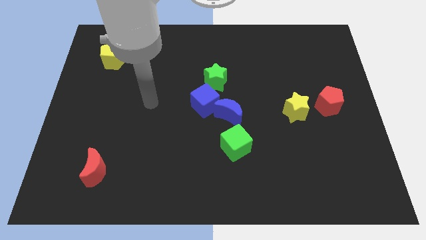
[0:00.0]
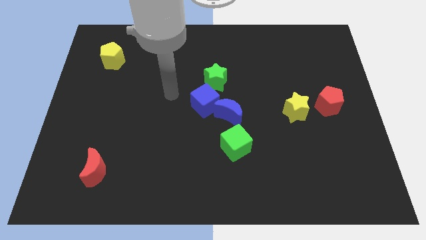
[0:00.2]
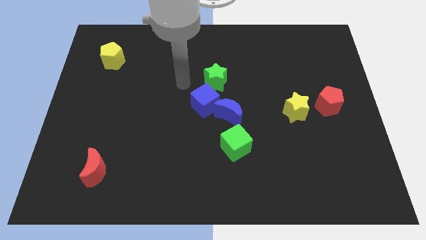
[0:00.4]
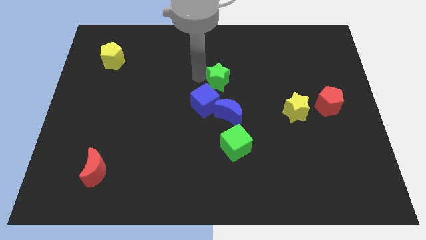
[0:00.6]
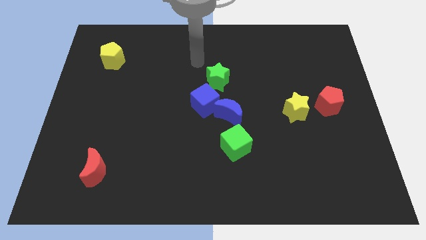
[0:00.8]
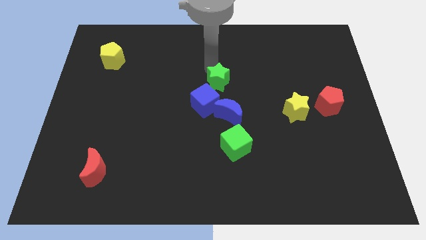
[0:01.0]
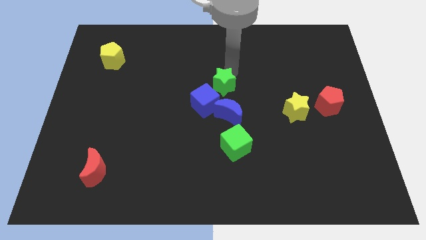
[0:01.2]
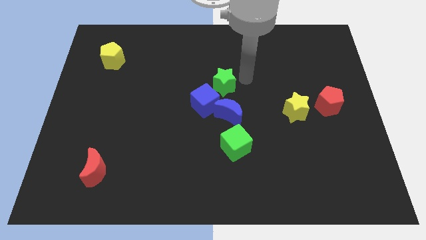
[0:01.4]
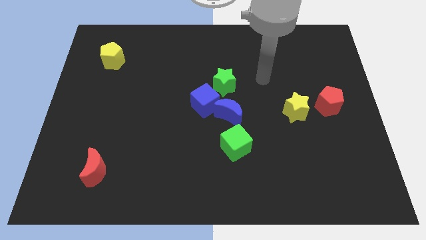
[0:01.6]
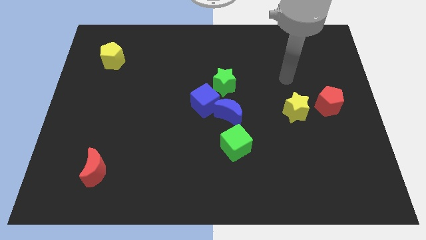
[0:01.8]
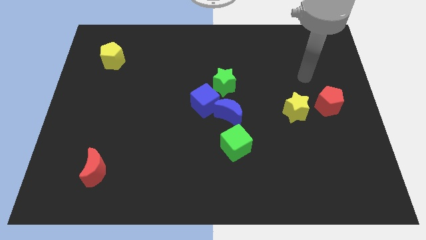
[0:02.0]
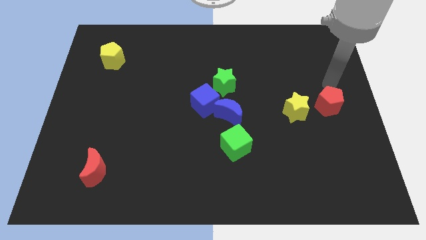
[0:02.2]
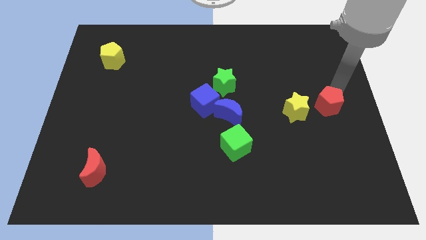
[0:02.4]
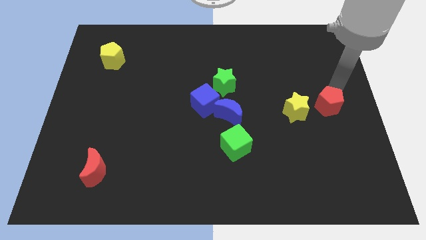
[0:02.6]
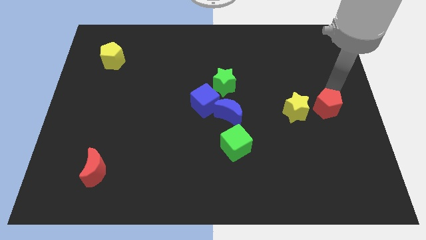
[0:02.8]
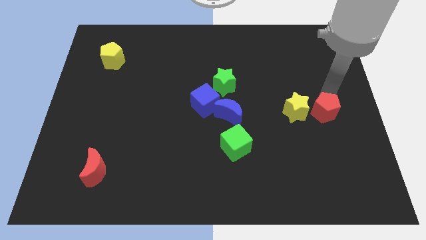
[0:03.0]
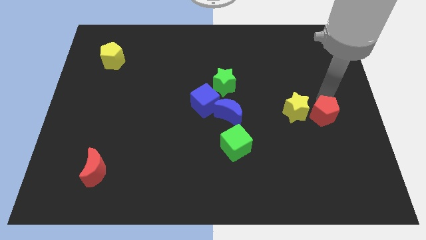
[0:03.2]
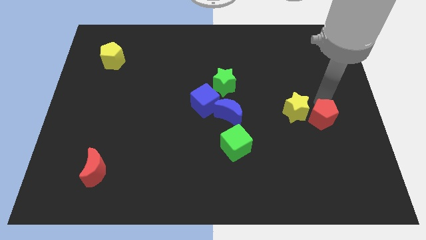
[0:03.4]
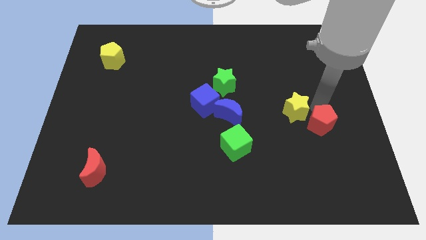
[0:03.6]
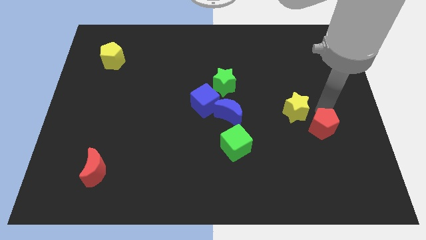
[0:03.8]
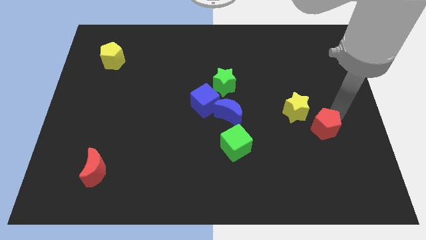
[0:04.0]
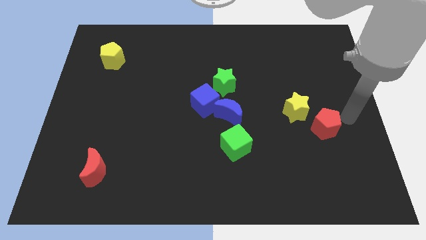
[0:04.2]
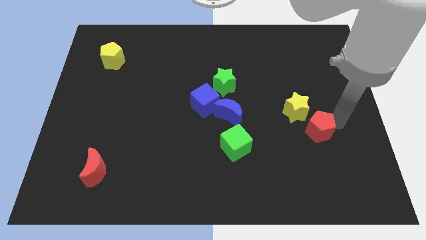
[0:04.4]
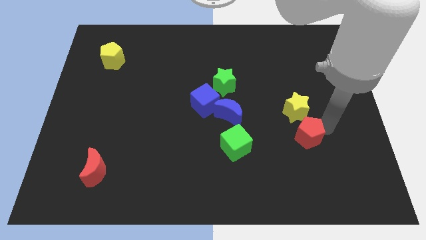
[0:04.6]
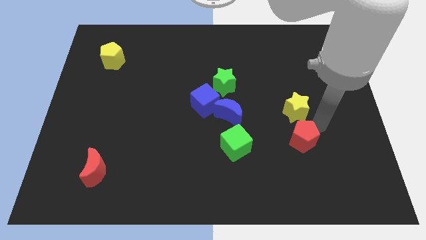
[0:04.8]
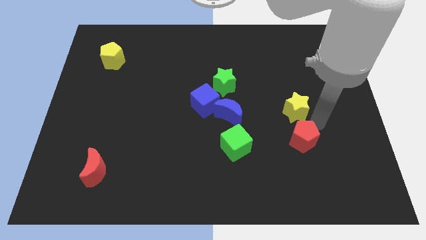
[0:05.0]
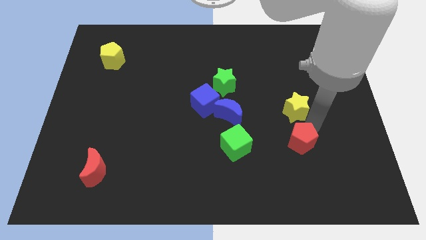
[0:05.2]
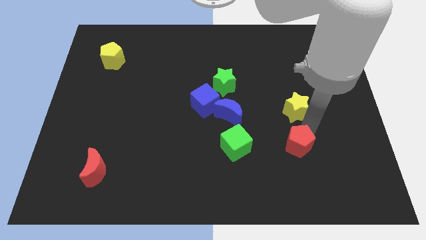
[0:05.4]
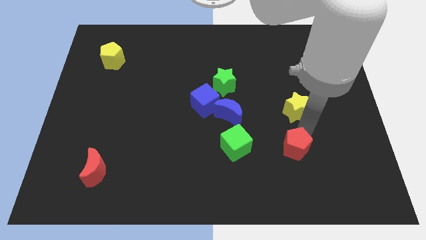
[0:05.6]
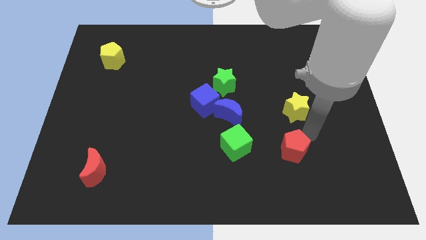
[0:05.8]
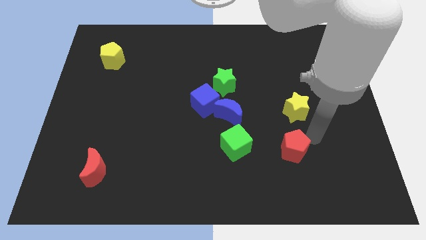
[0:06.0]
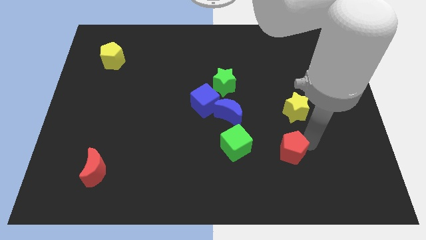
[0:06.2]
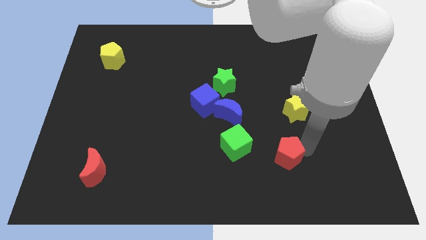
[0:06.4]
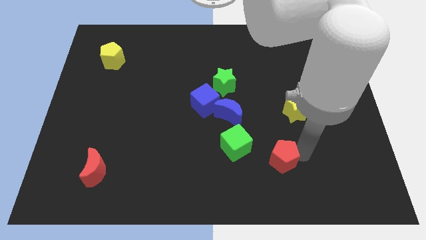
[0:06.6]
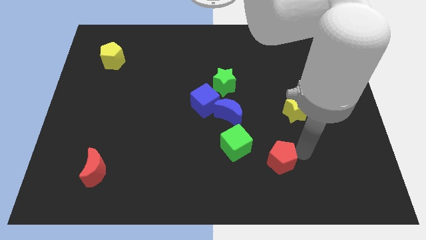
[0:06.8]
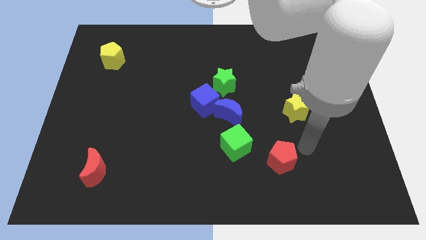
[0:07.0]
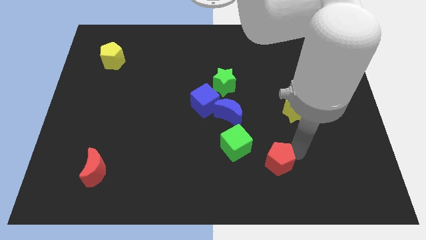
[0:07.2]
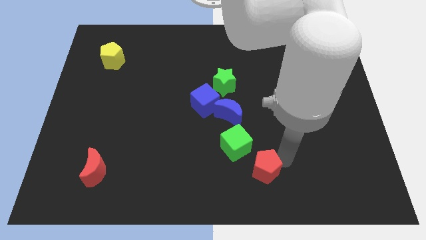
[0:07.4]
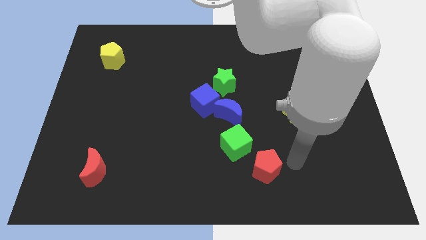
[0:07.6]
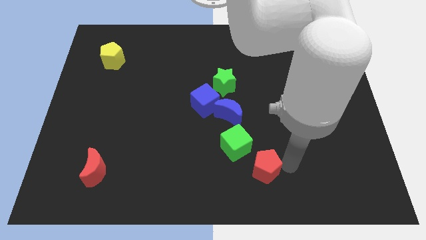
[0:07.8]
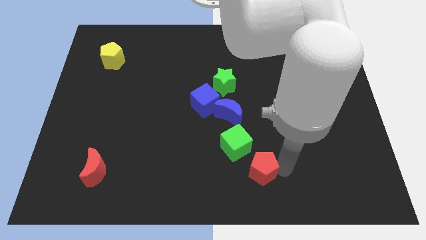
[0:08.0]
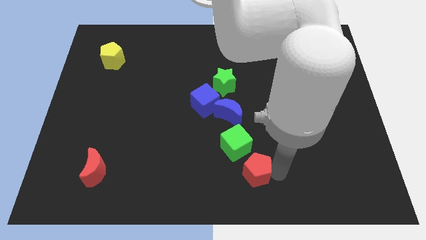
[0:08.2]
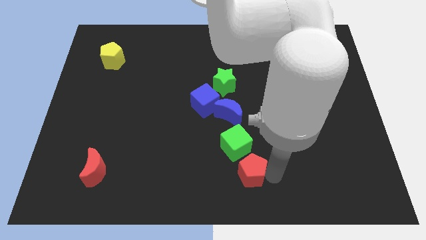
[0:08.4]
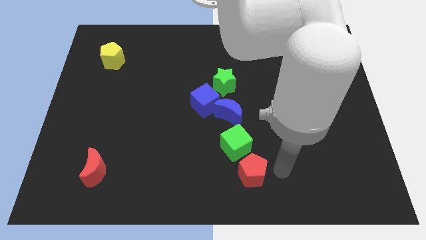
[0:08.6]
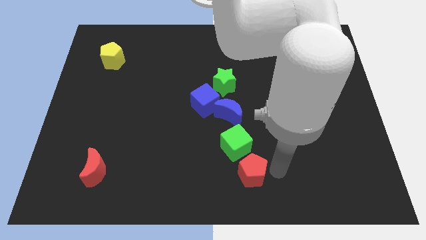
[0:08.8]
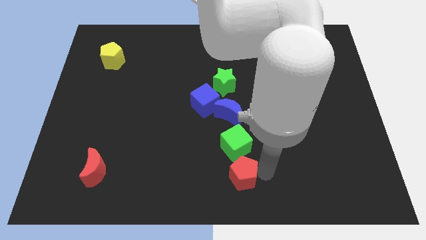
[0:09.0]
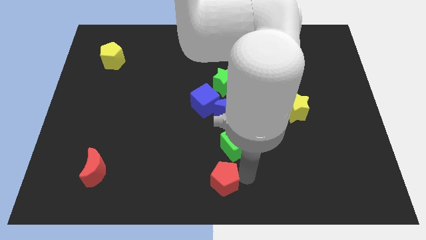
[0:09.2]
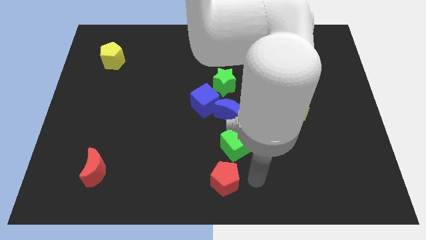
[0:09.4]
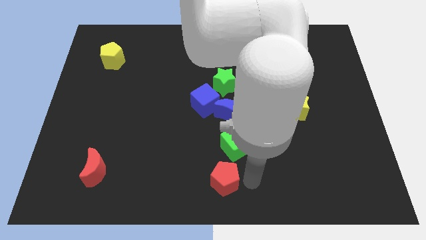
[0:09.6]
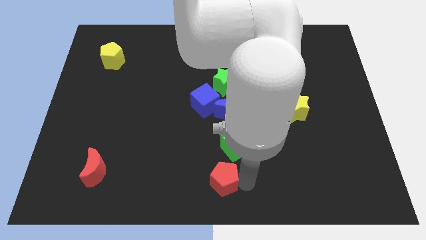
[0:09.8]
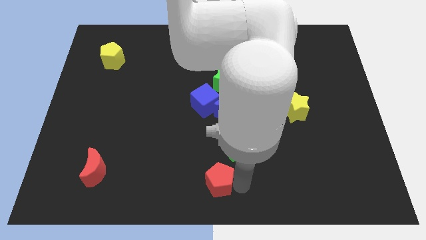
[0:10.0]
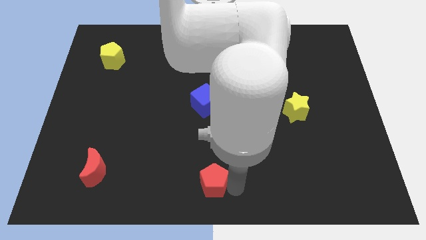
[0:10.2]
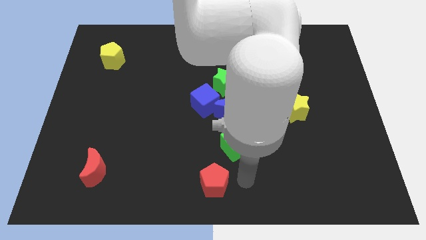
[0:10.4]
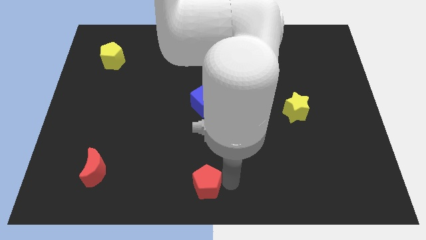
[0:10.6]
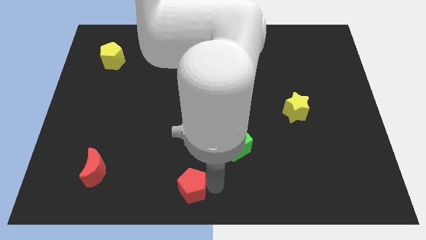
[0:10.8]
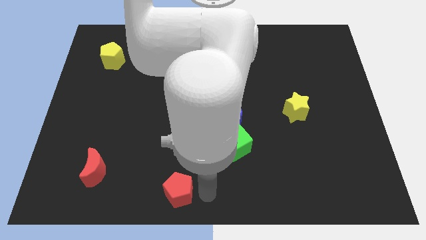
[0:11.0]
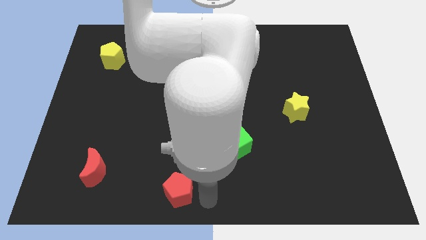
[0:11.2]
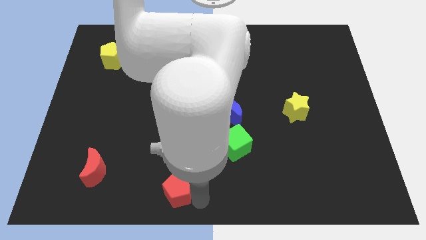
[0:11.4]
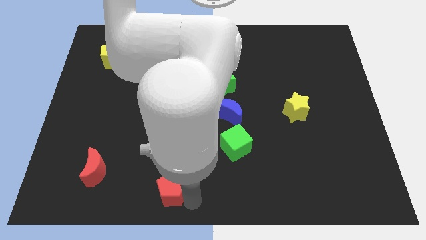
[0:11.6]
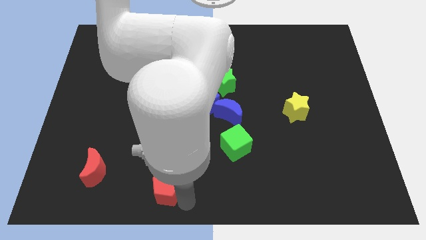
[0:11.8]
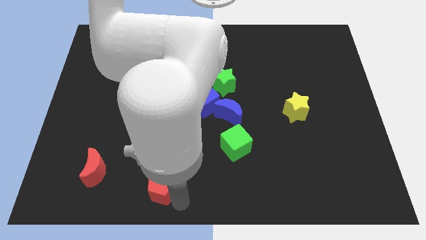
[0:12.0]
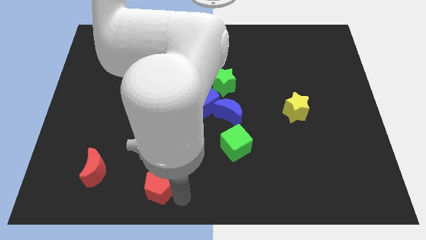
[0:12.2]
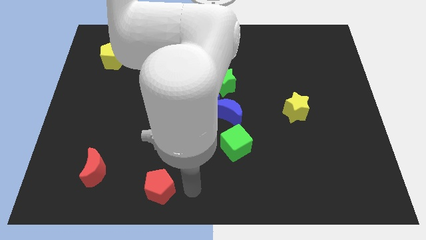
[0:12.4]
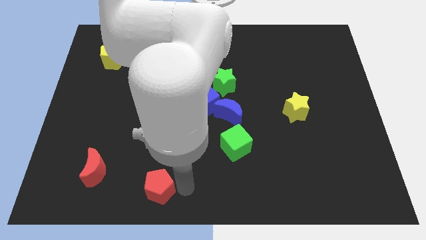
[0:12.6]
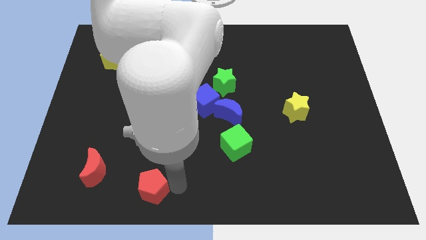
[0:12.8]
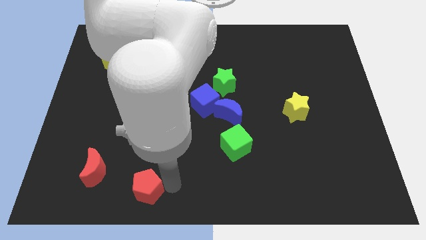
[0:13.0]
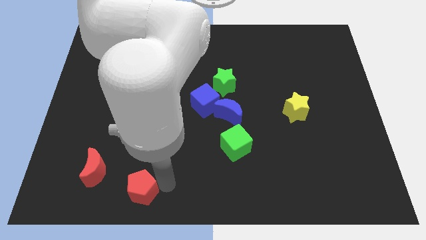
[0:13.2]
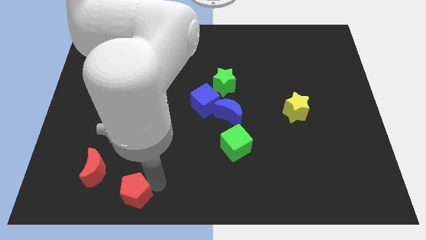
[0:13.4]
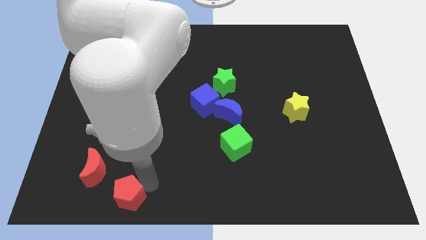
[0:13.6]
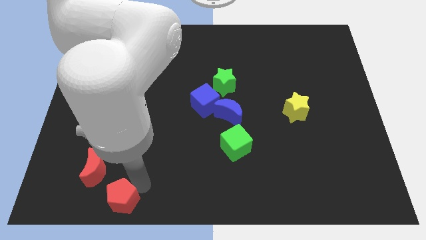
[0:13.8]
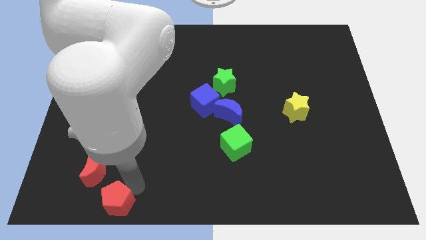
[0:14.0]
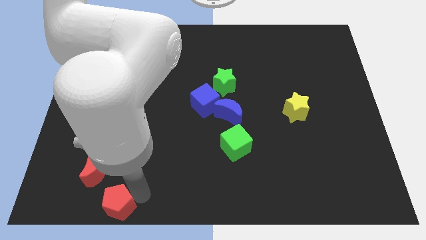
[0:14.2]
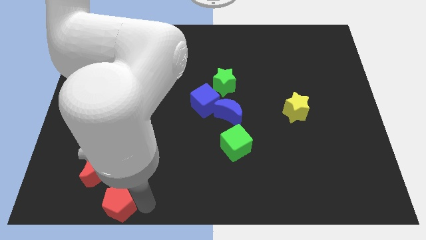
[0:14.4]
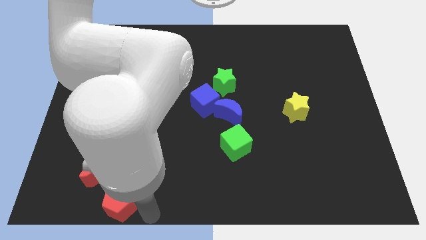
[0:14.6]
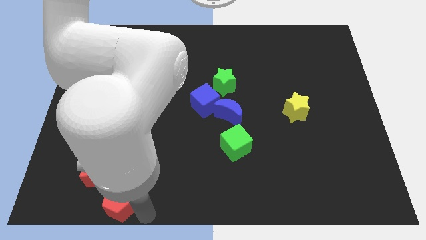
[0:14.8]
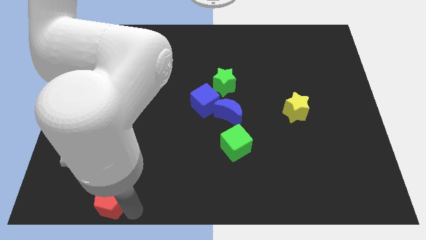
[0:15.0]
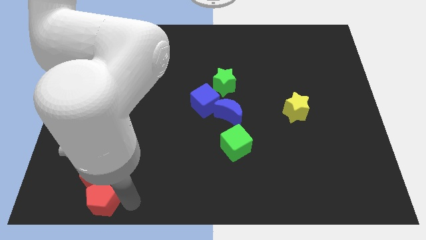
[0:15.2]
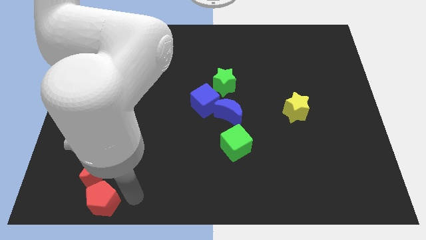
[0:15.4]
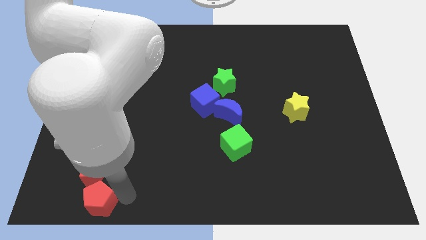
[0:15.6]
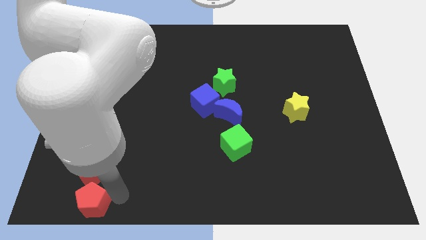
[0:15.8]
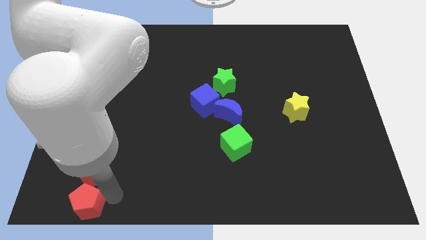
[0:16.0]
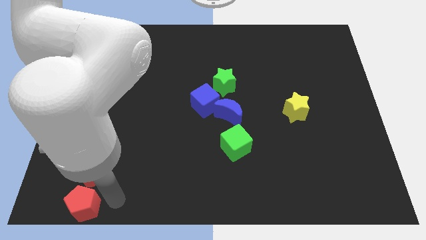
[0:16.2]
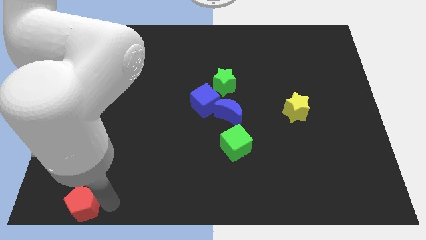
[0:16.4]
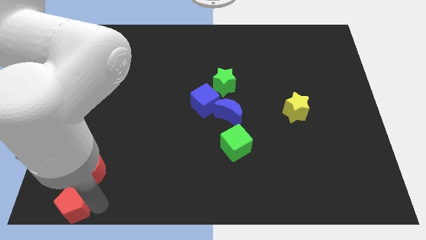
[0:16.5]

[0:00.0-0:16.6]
slide the red pentagon to the bottom left
